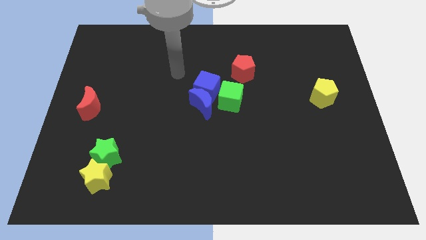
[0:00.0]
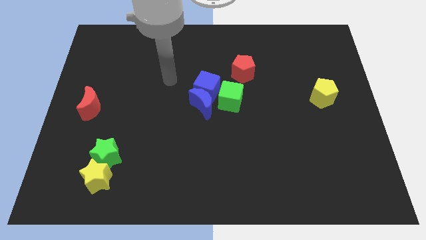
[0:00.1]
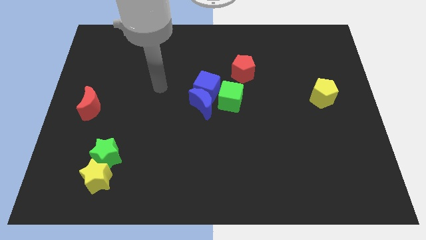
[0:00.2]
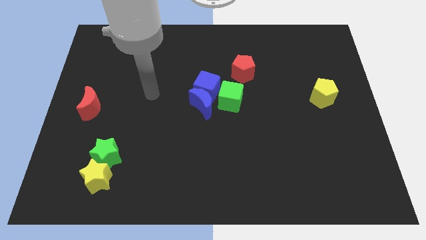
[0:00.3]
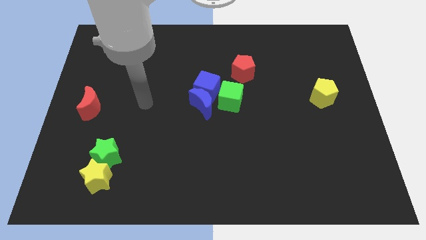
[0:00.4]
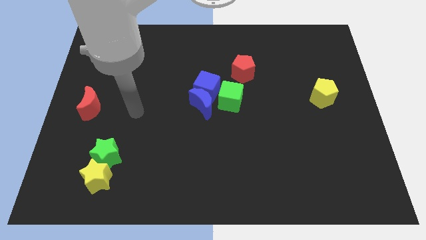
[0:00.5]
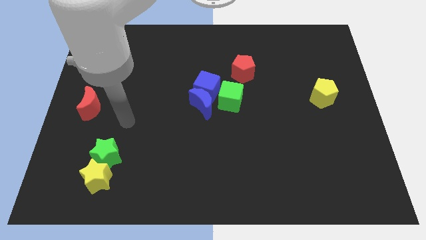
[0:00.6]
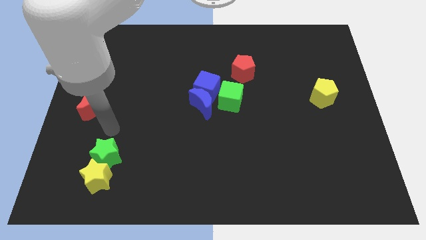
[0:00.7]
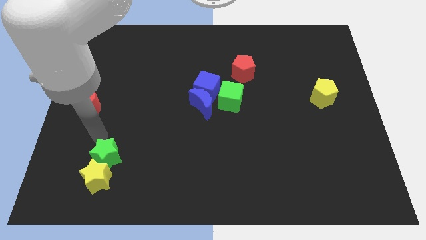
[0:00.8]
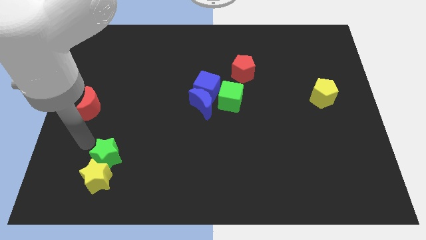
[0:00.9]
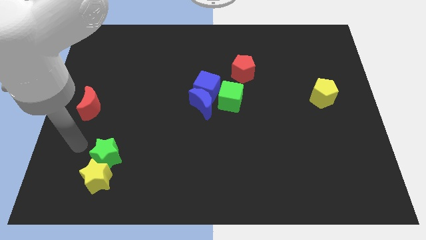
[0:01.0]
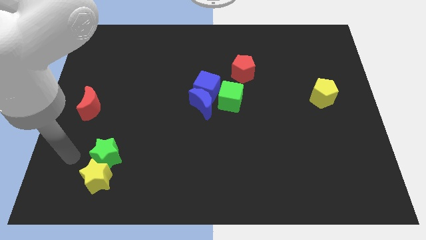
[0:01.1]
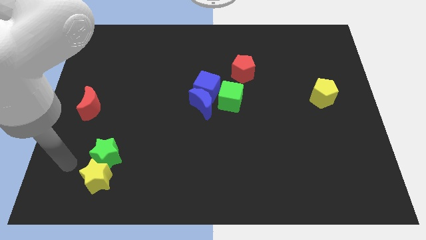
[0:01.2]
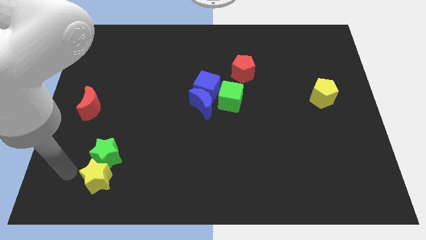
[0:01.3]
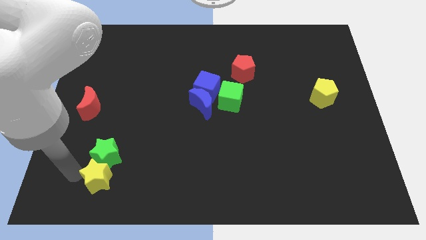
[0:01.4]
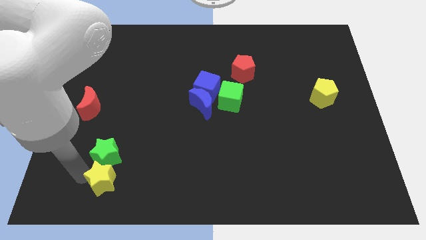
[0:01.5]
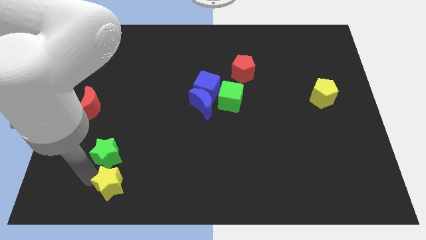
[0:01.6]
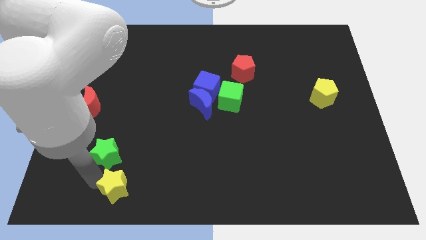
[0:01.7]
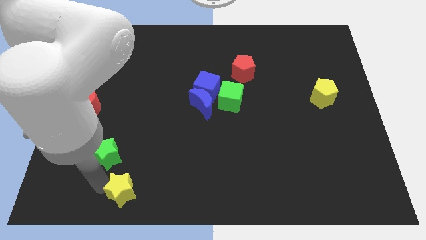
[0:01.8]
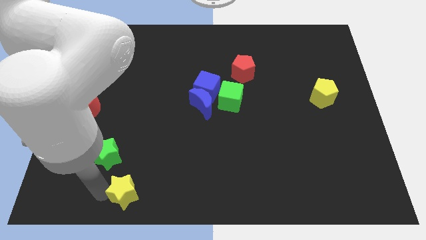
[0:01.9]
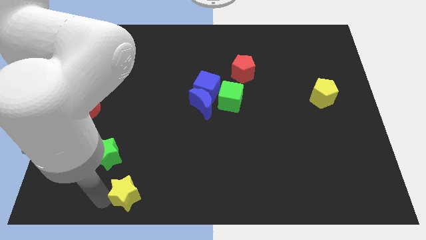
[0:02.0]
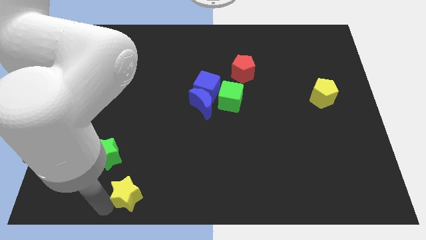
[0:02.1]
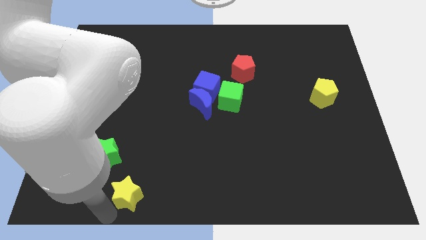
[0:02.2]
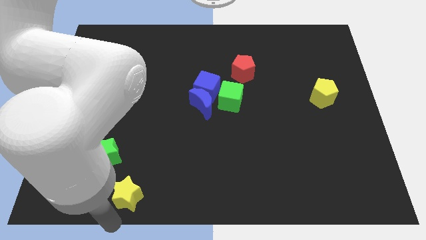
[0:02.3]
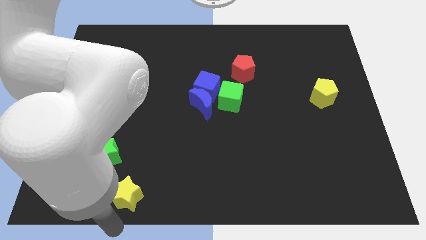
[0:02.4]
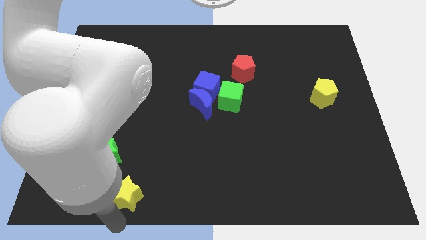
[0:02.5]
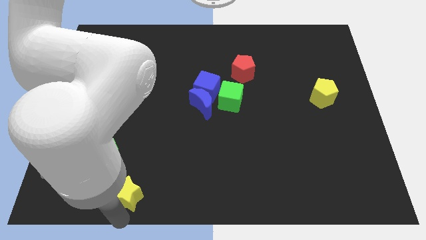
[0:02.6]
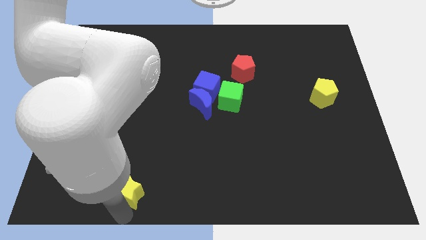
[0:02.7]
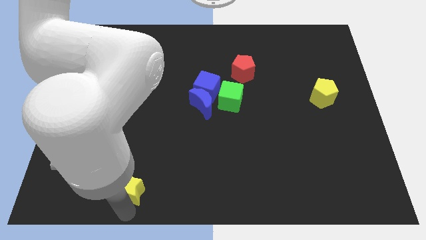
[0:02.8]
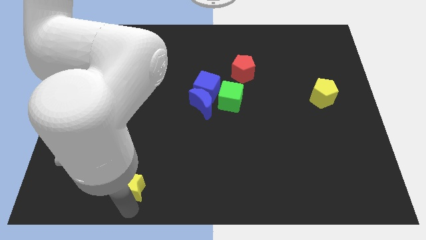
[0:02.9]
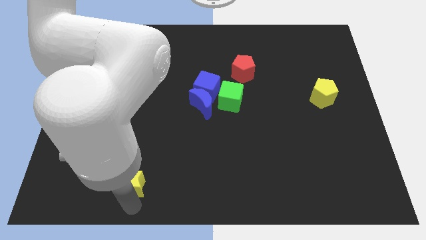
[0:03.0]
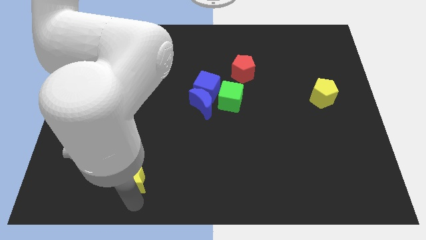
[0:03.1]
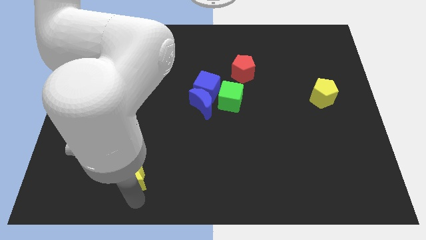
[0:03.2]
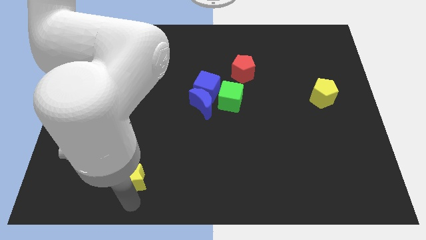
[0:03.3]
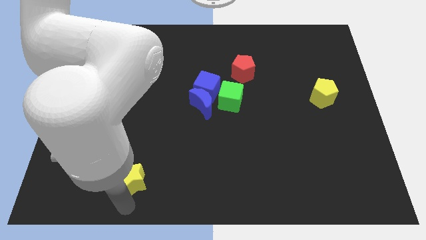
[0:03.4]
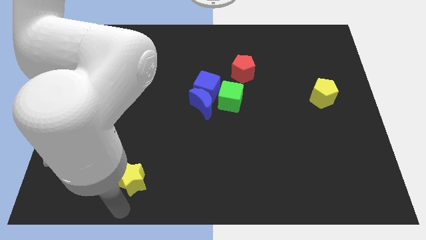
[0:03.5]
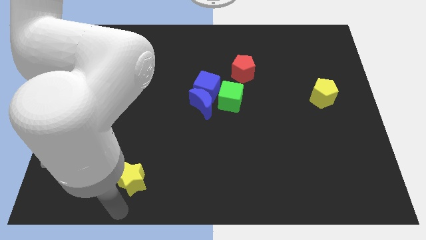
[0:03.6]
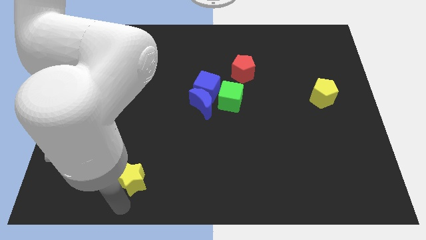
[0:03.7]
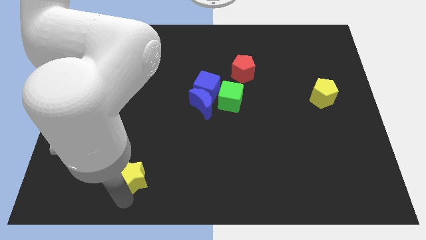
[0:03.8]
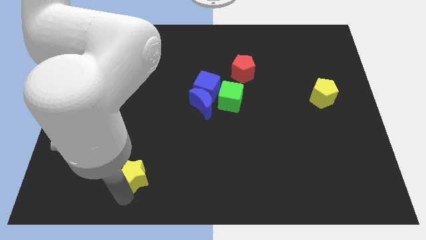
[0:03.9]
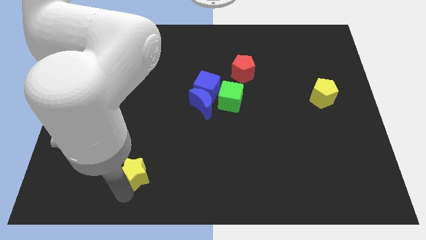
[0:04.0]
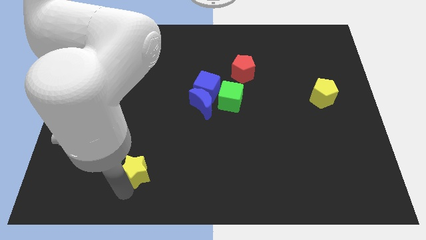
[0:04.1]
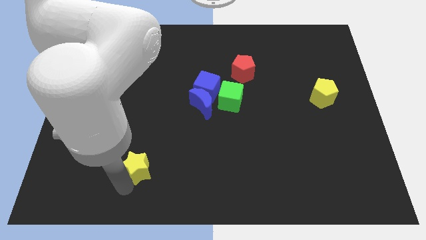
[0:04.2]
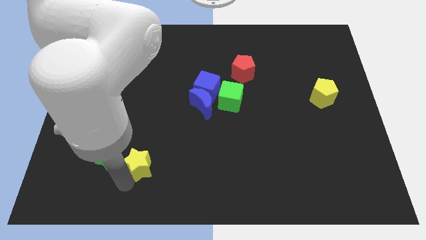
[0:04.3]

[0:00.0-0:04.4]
move the yellow star up and then right somewhat

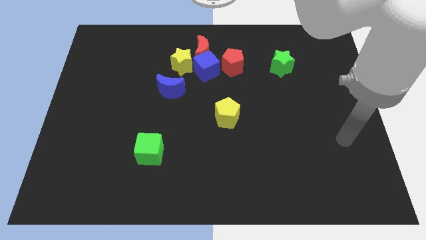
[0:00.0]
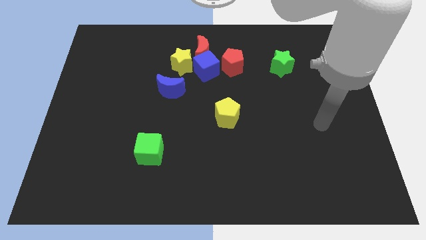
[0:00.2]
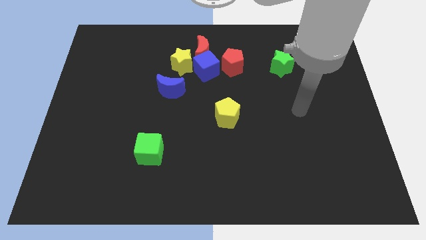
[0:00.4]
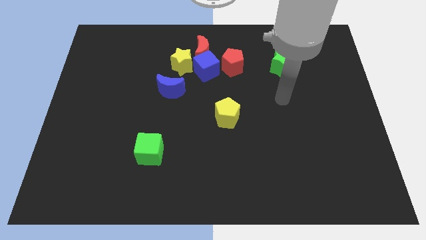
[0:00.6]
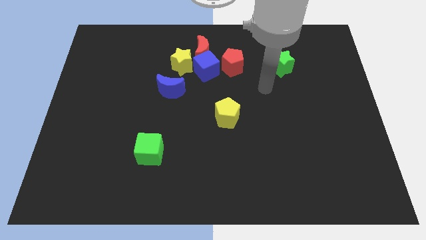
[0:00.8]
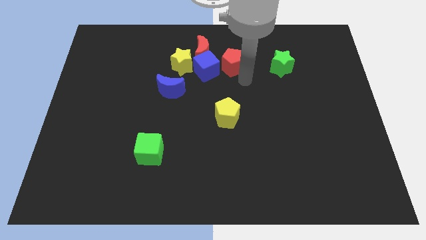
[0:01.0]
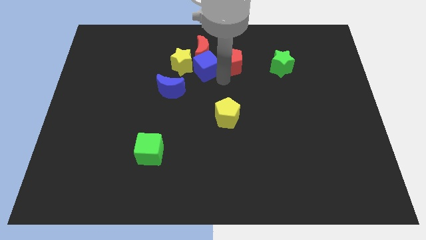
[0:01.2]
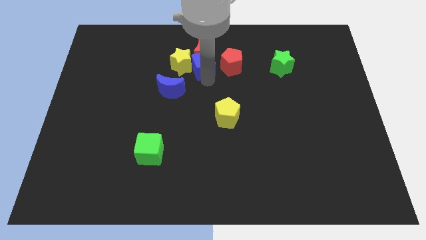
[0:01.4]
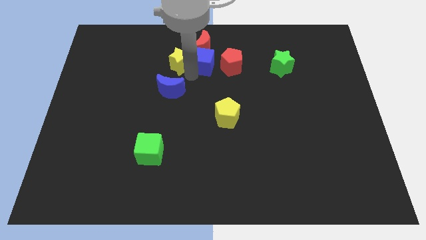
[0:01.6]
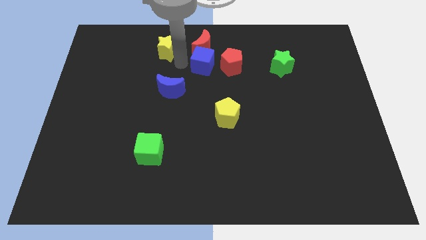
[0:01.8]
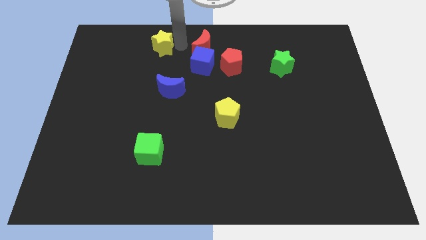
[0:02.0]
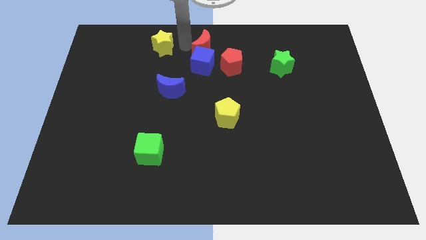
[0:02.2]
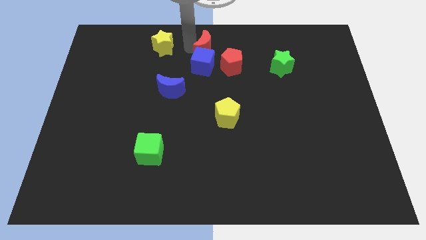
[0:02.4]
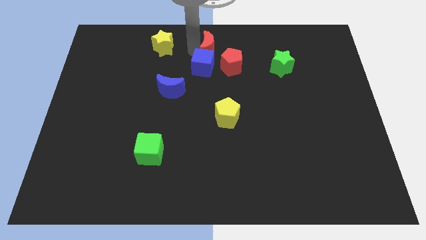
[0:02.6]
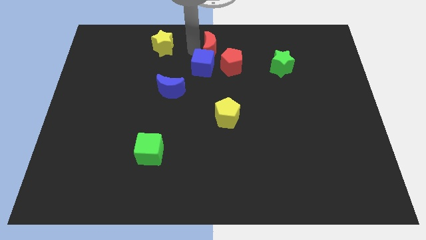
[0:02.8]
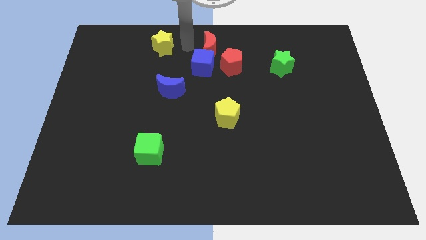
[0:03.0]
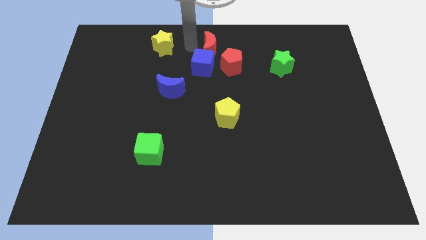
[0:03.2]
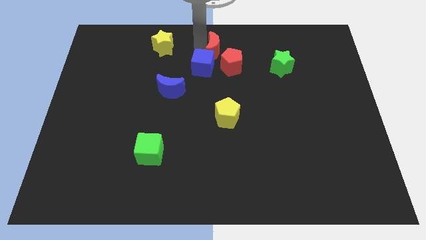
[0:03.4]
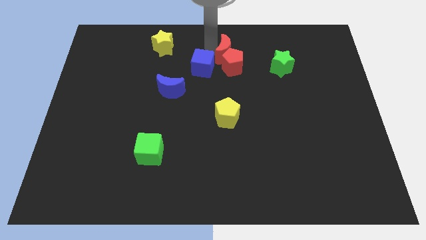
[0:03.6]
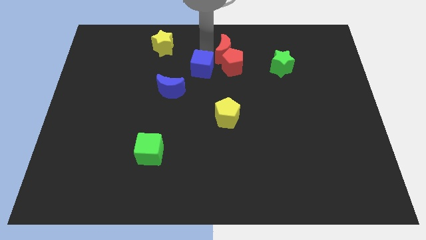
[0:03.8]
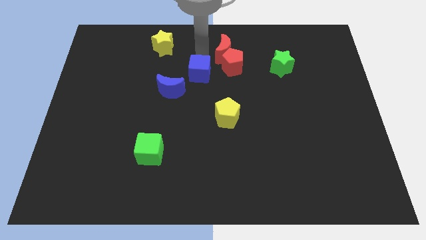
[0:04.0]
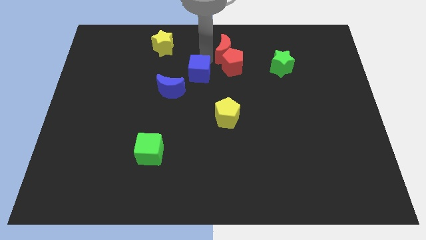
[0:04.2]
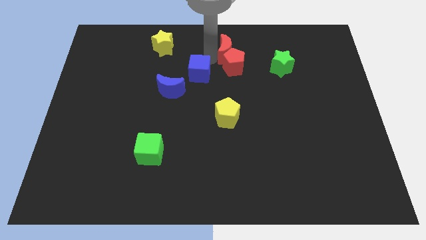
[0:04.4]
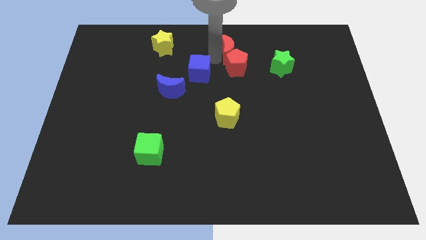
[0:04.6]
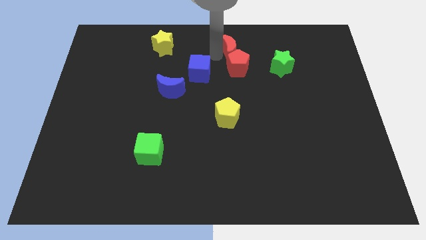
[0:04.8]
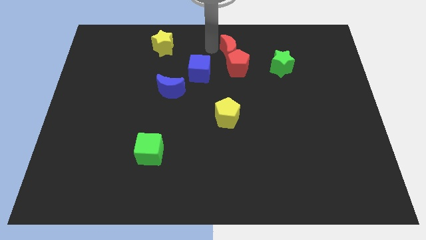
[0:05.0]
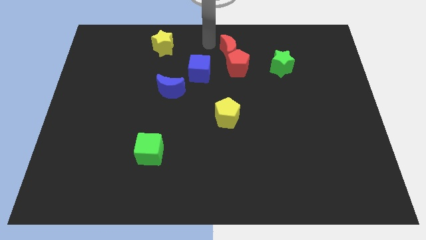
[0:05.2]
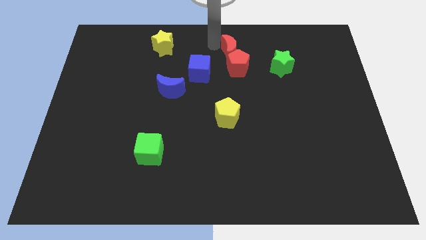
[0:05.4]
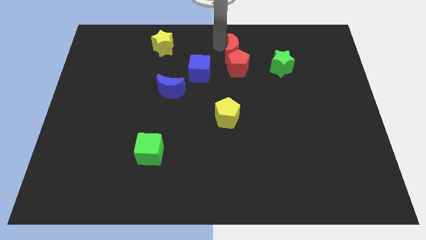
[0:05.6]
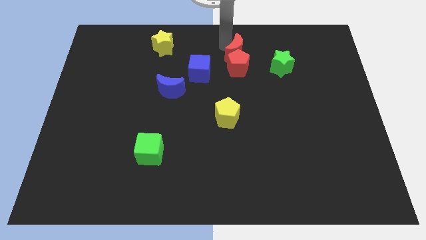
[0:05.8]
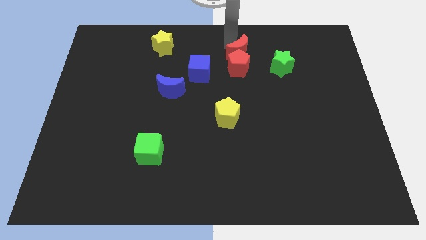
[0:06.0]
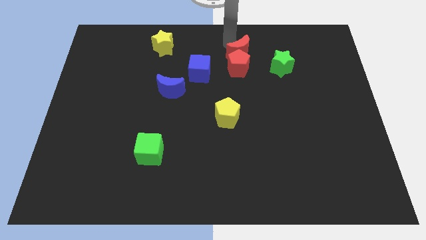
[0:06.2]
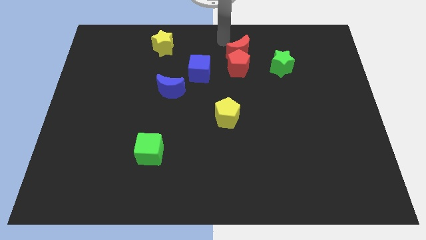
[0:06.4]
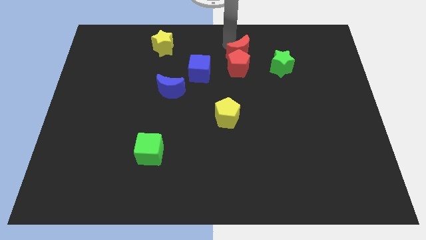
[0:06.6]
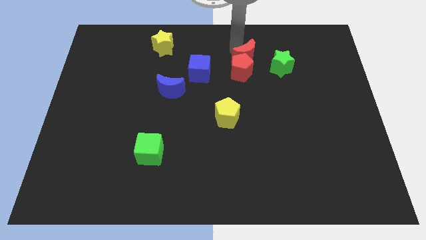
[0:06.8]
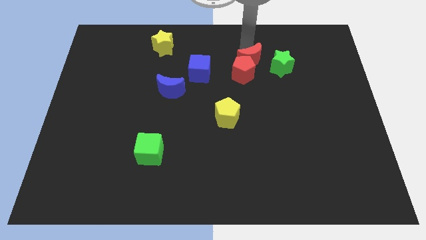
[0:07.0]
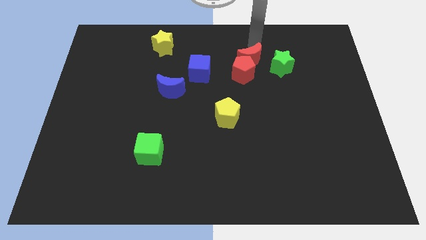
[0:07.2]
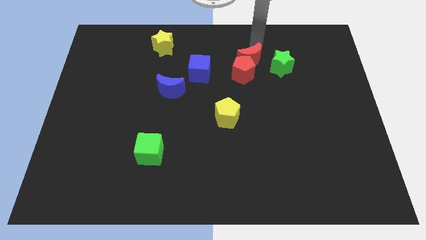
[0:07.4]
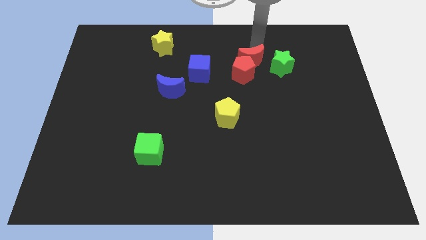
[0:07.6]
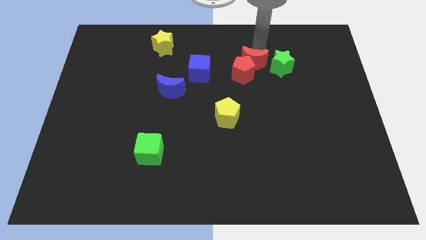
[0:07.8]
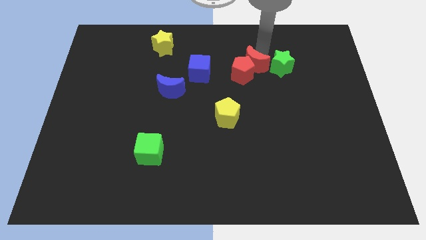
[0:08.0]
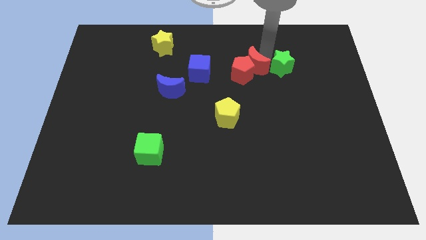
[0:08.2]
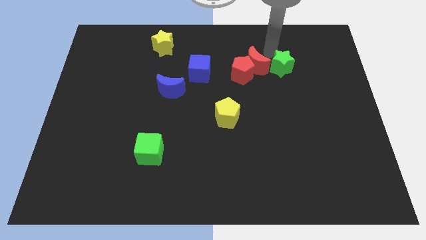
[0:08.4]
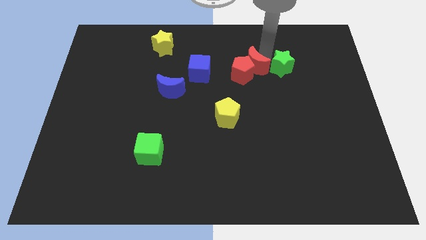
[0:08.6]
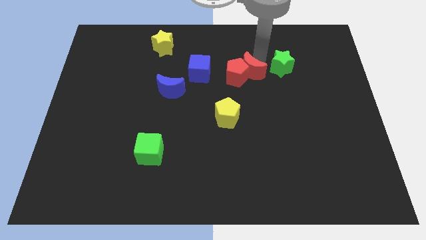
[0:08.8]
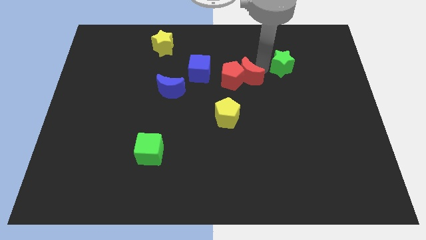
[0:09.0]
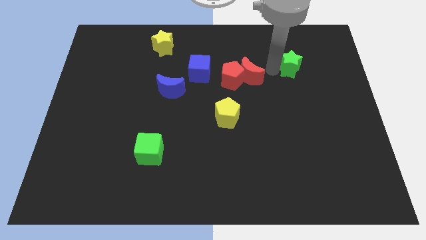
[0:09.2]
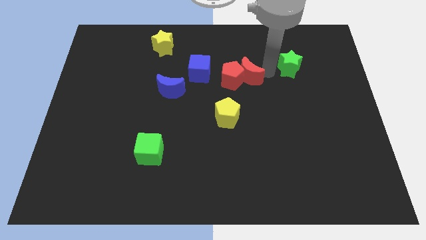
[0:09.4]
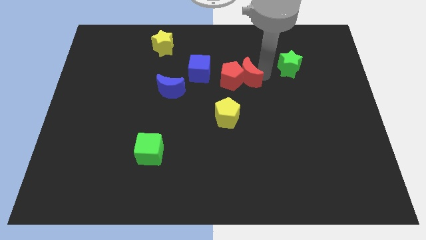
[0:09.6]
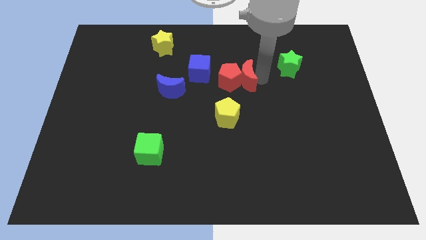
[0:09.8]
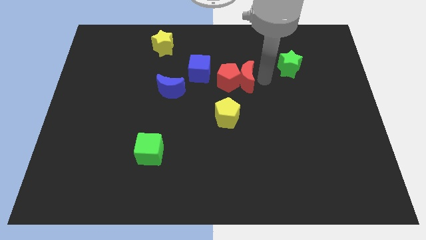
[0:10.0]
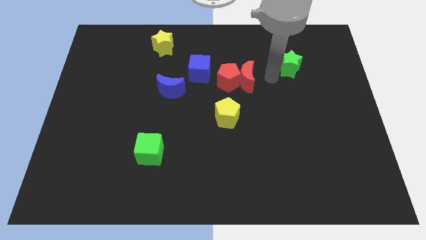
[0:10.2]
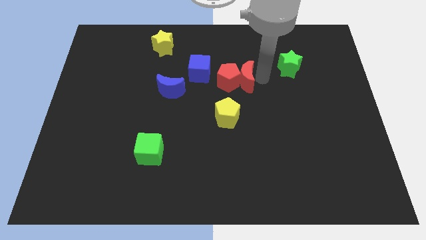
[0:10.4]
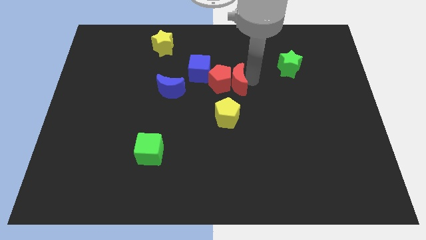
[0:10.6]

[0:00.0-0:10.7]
move the red moon slightly down
